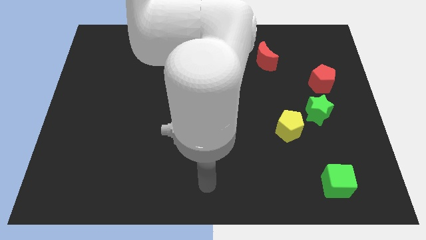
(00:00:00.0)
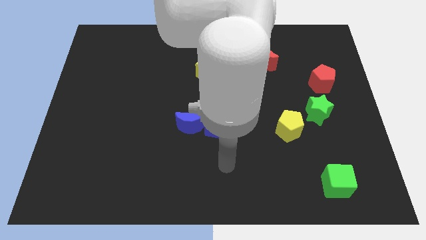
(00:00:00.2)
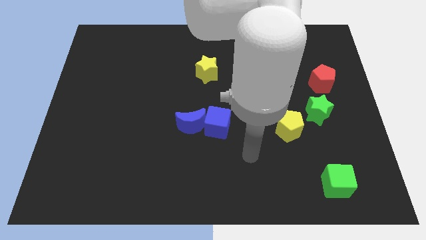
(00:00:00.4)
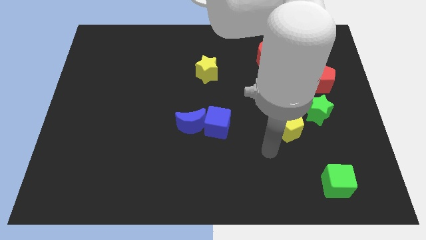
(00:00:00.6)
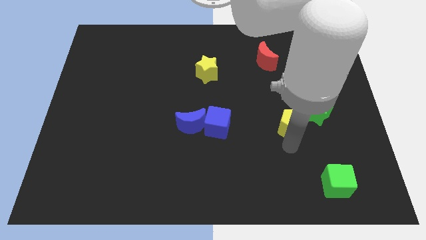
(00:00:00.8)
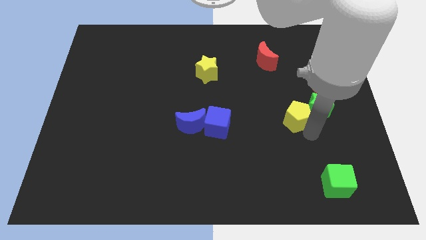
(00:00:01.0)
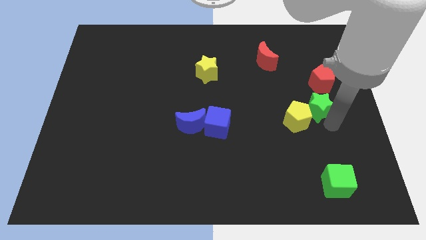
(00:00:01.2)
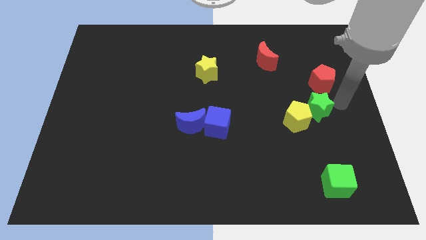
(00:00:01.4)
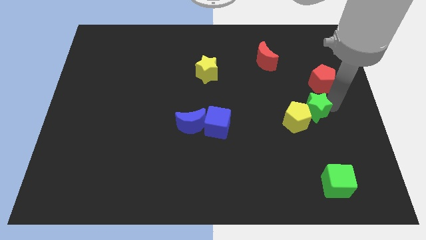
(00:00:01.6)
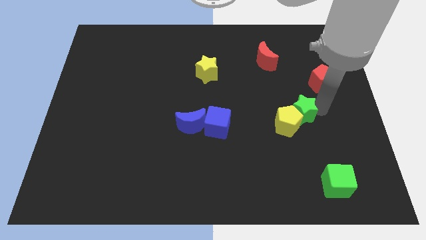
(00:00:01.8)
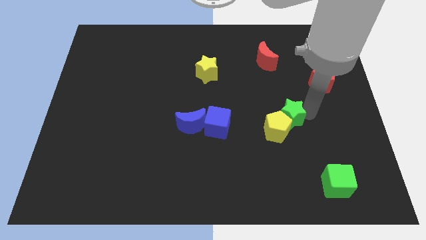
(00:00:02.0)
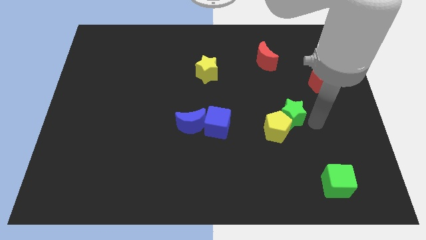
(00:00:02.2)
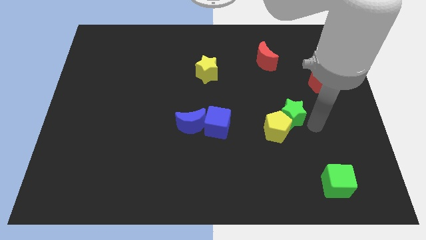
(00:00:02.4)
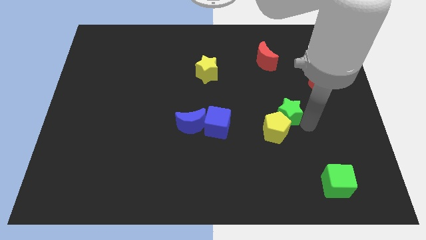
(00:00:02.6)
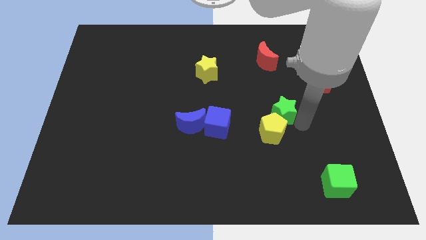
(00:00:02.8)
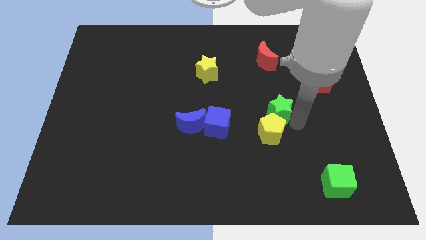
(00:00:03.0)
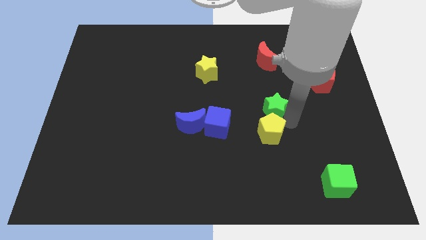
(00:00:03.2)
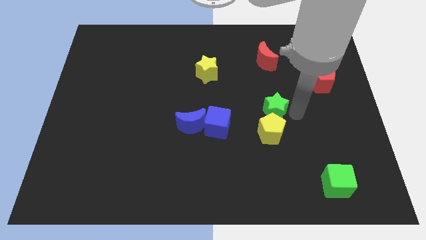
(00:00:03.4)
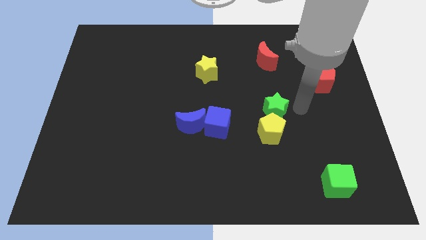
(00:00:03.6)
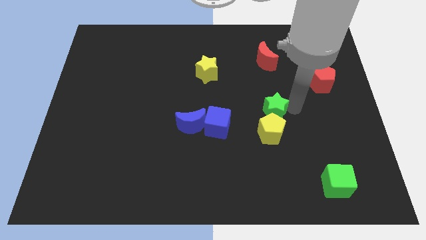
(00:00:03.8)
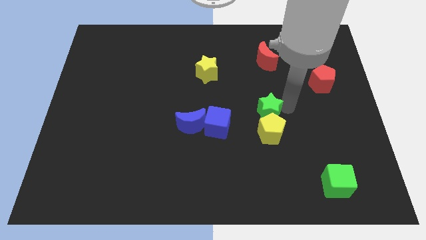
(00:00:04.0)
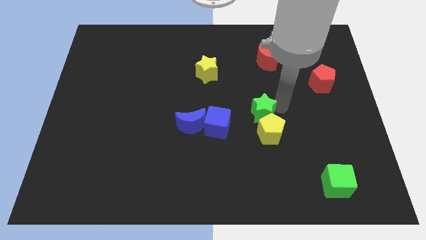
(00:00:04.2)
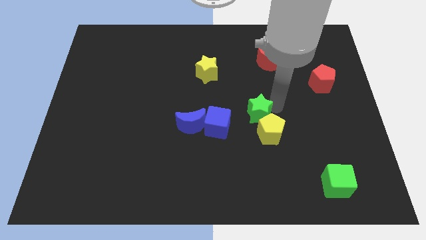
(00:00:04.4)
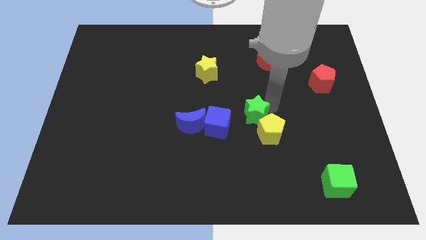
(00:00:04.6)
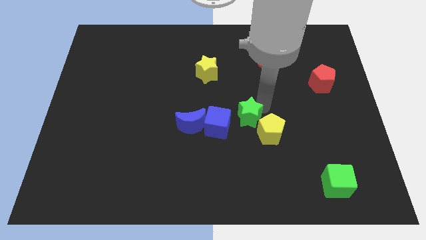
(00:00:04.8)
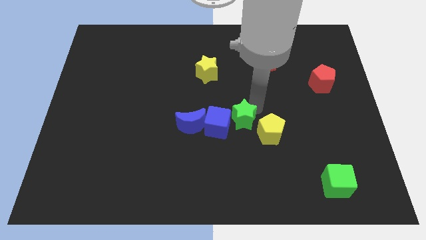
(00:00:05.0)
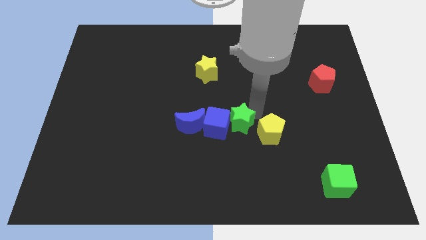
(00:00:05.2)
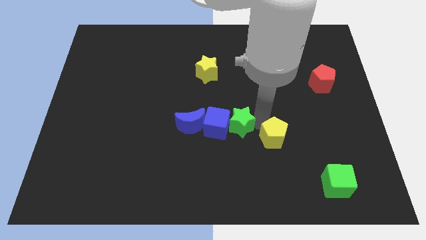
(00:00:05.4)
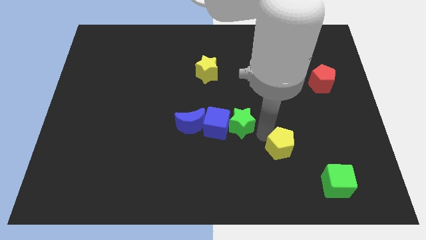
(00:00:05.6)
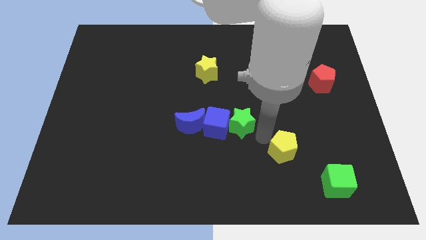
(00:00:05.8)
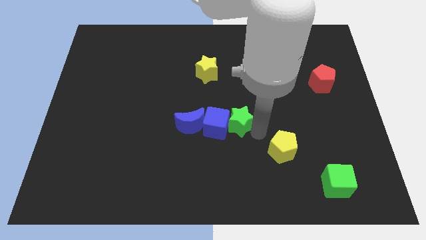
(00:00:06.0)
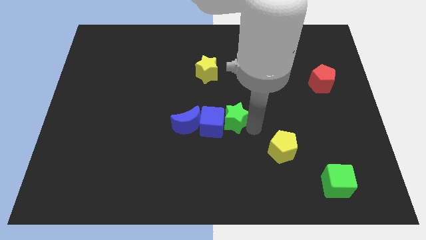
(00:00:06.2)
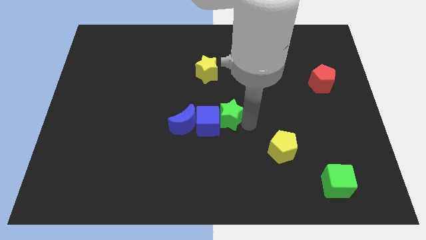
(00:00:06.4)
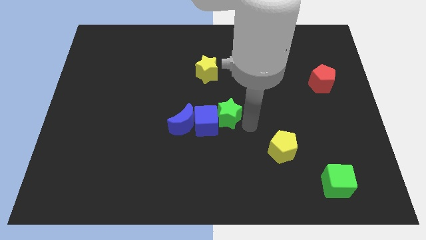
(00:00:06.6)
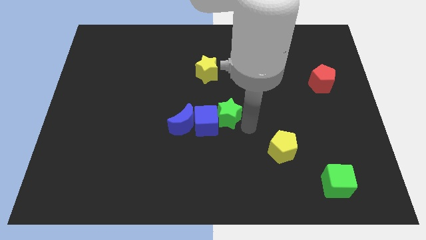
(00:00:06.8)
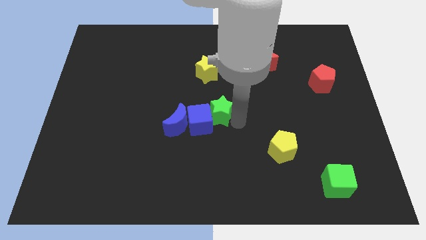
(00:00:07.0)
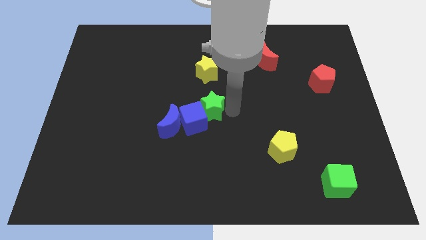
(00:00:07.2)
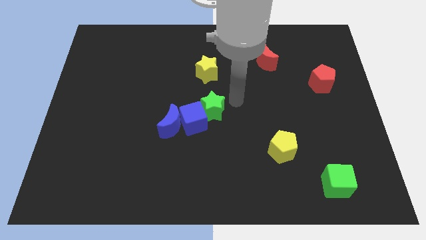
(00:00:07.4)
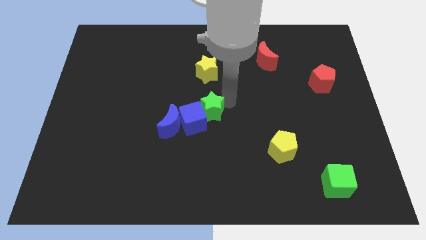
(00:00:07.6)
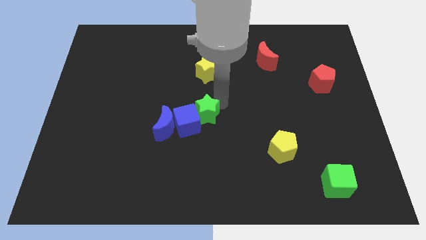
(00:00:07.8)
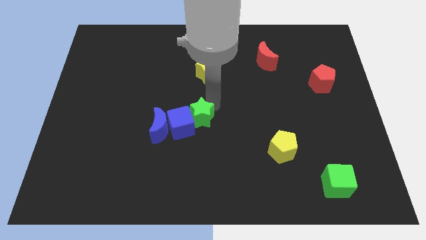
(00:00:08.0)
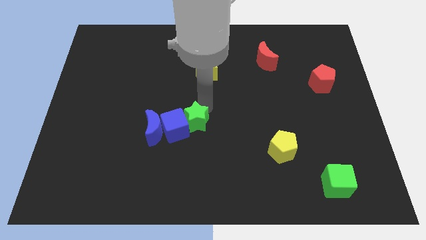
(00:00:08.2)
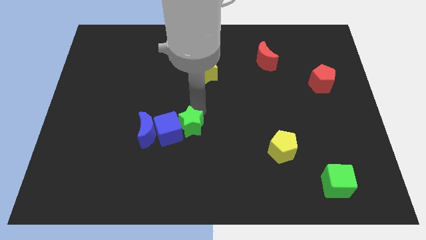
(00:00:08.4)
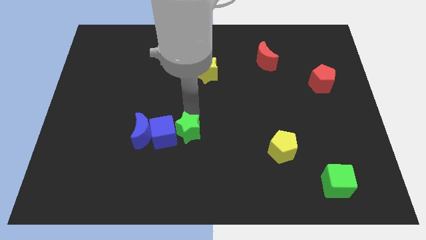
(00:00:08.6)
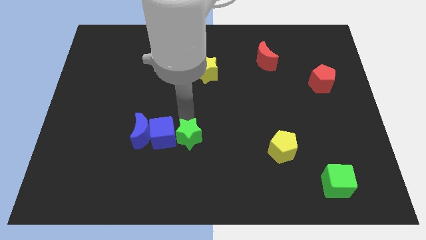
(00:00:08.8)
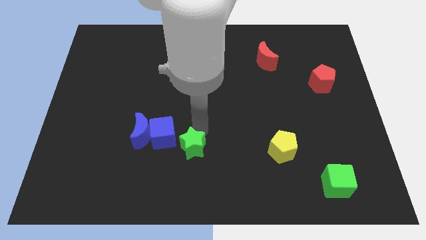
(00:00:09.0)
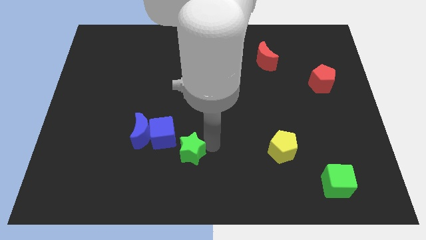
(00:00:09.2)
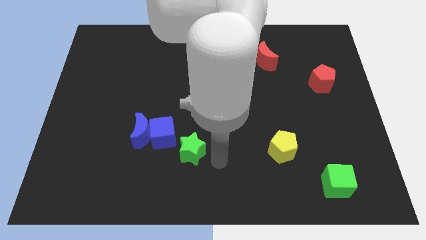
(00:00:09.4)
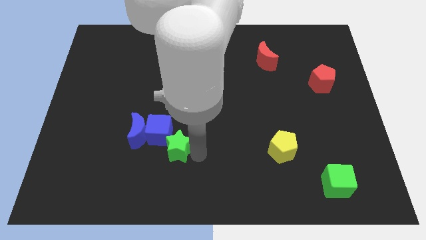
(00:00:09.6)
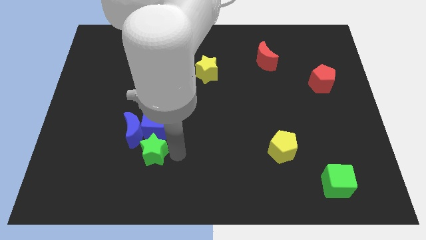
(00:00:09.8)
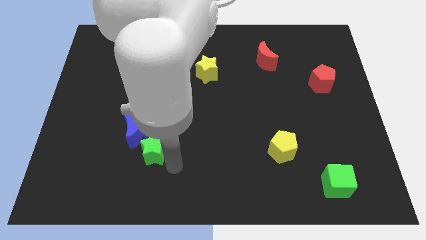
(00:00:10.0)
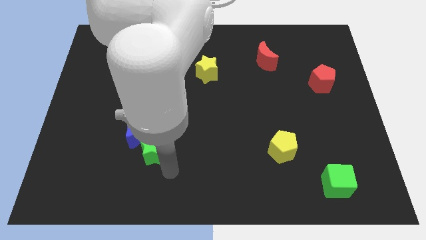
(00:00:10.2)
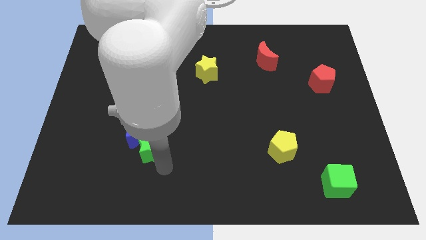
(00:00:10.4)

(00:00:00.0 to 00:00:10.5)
move the green star to the blue moon

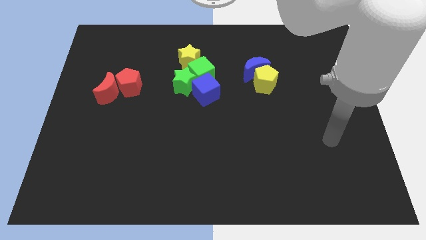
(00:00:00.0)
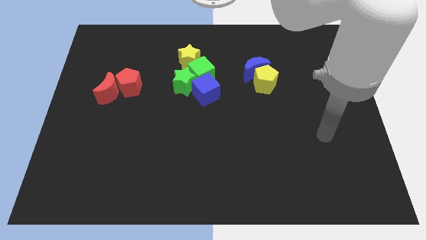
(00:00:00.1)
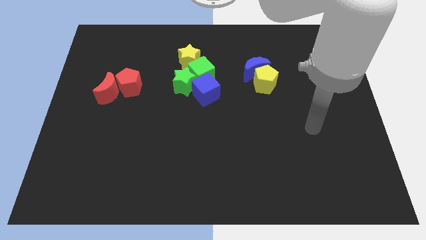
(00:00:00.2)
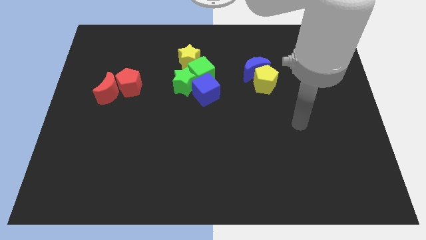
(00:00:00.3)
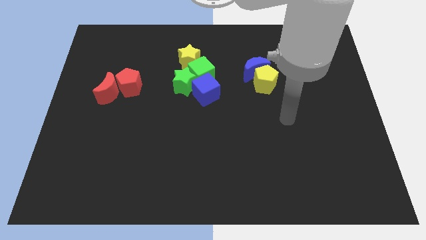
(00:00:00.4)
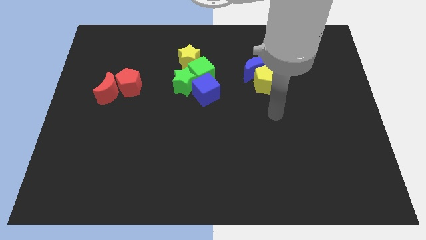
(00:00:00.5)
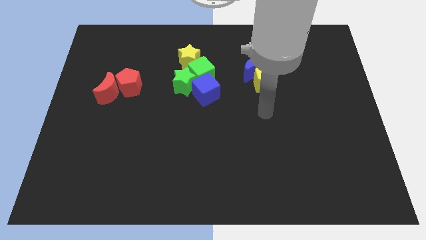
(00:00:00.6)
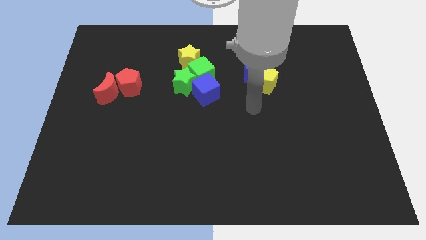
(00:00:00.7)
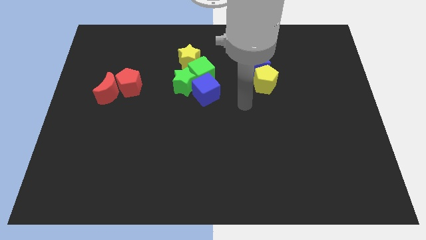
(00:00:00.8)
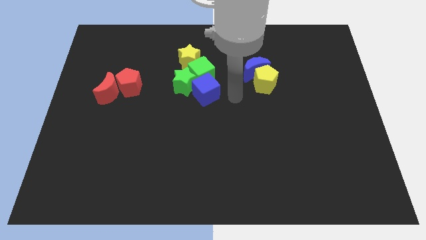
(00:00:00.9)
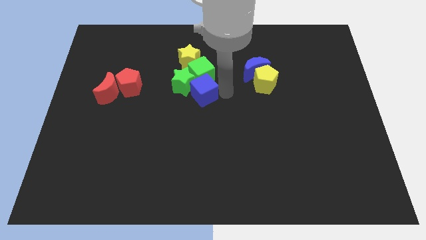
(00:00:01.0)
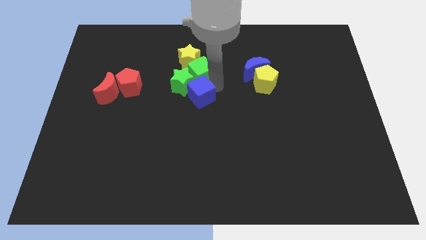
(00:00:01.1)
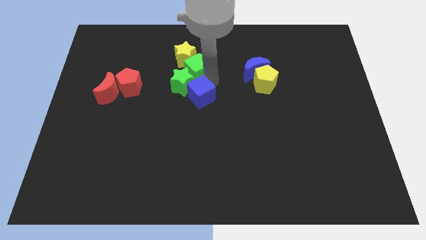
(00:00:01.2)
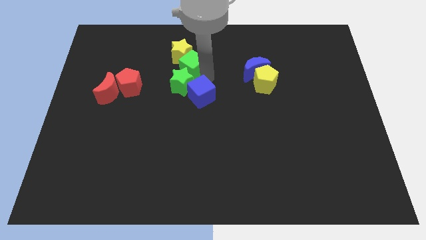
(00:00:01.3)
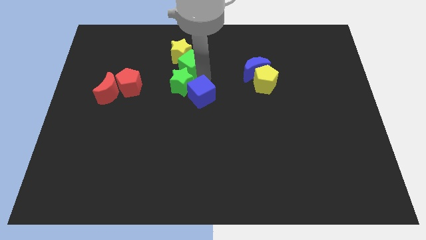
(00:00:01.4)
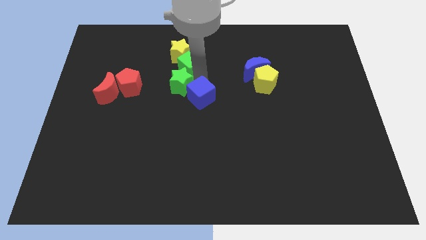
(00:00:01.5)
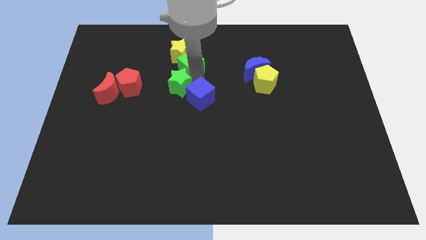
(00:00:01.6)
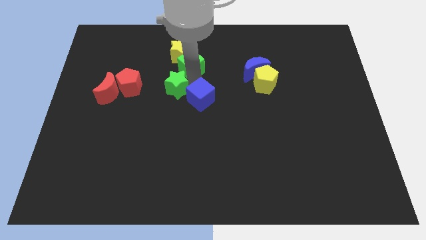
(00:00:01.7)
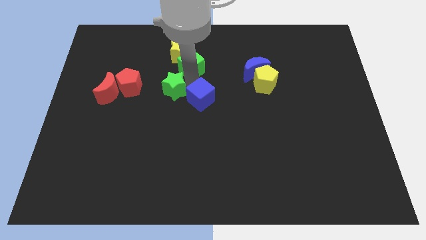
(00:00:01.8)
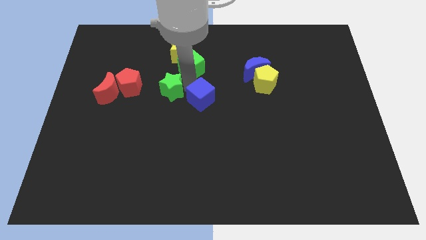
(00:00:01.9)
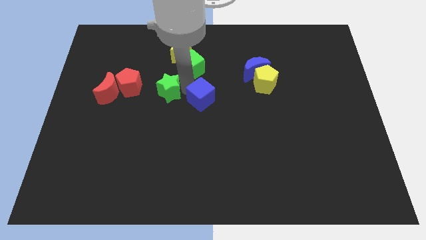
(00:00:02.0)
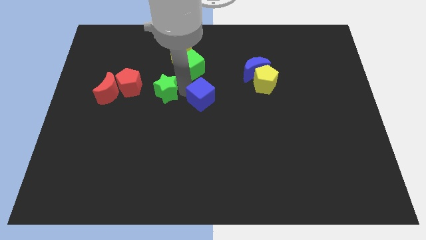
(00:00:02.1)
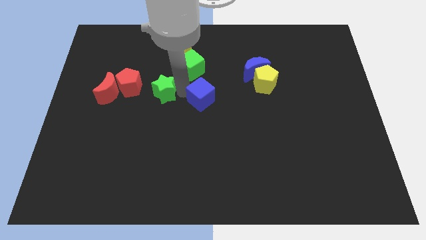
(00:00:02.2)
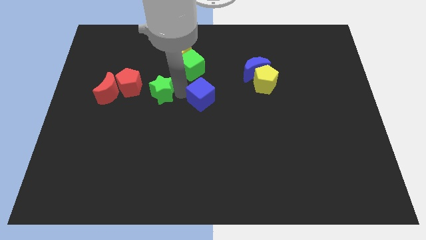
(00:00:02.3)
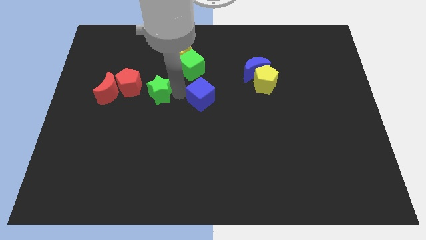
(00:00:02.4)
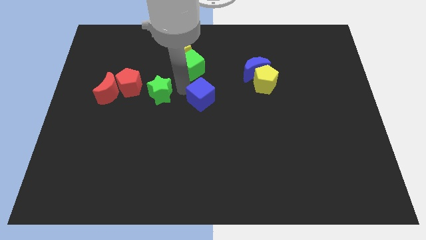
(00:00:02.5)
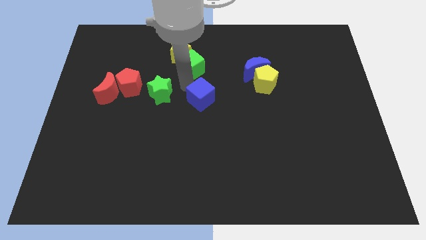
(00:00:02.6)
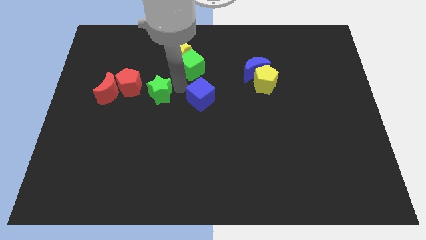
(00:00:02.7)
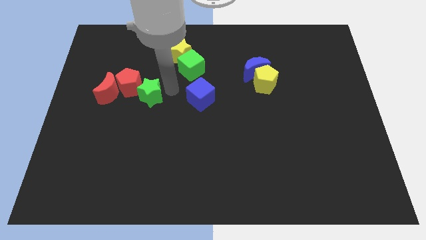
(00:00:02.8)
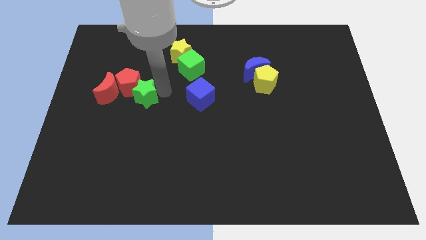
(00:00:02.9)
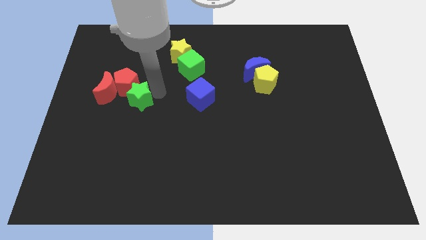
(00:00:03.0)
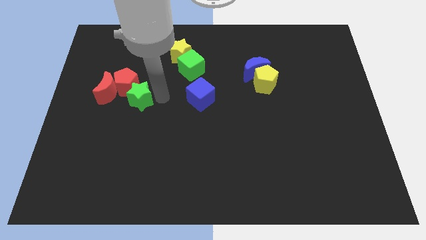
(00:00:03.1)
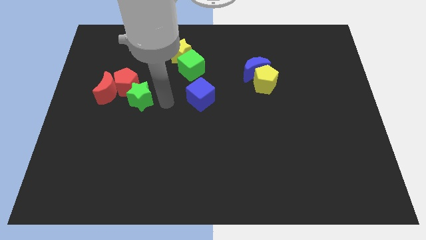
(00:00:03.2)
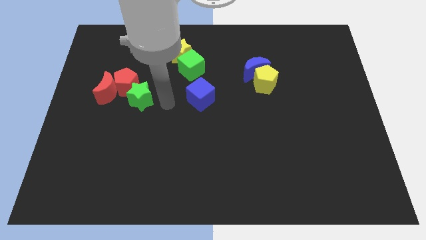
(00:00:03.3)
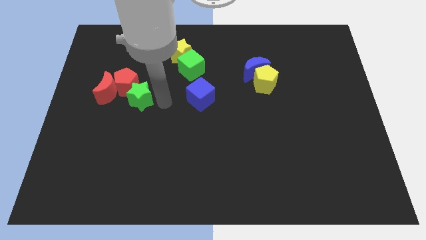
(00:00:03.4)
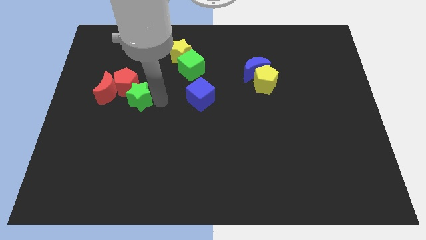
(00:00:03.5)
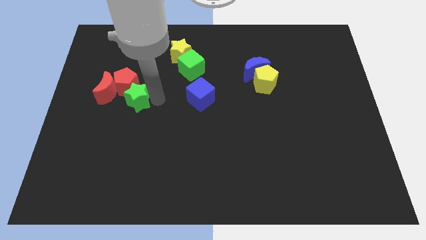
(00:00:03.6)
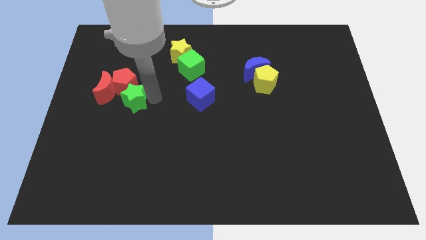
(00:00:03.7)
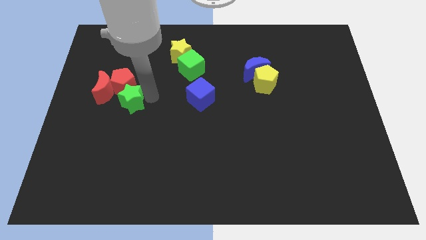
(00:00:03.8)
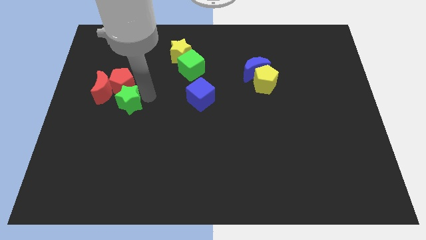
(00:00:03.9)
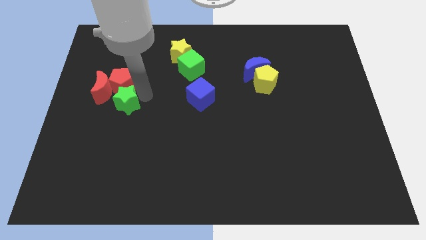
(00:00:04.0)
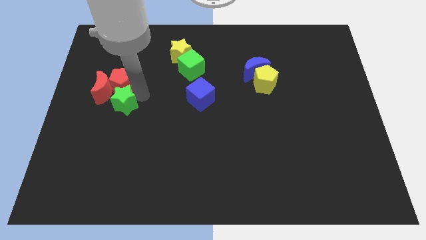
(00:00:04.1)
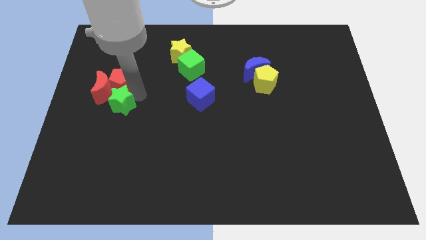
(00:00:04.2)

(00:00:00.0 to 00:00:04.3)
put the green star to the red moon
